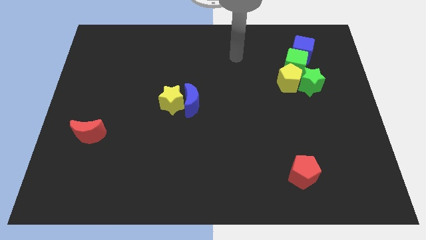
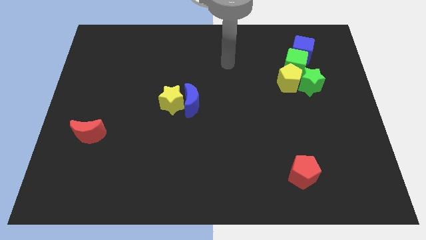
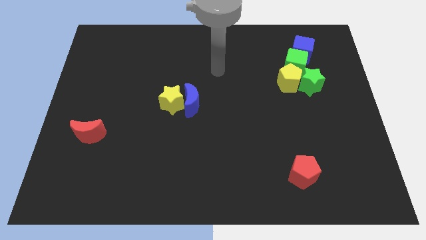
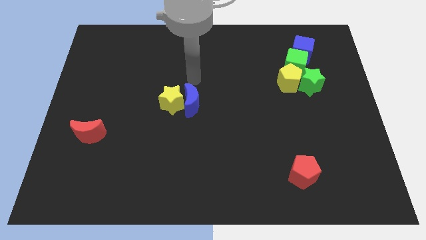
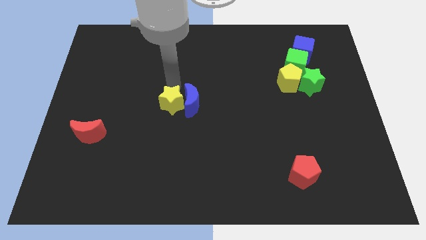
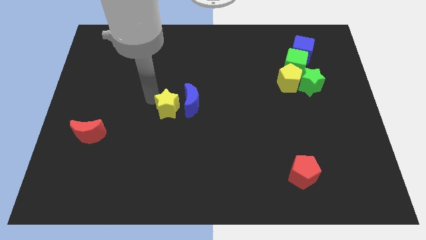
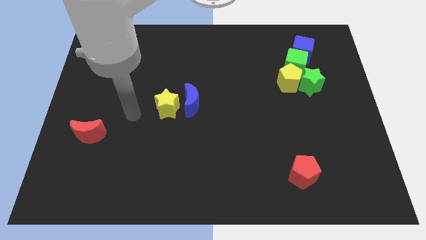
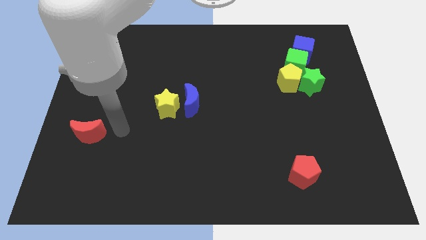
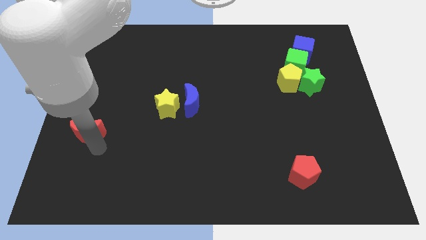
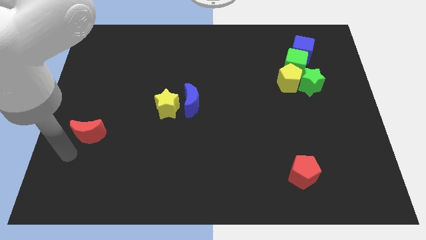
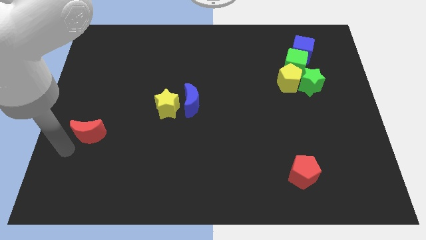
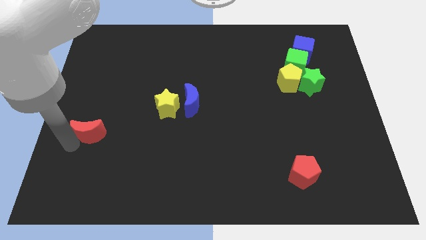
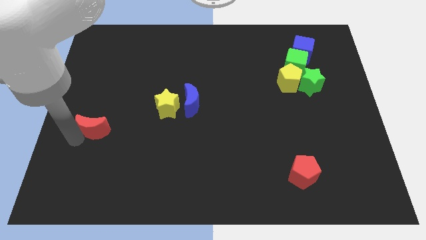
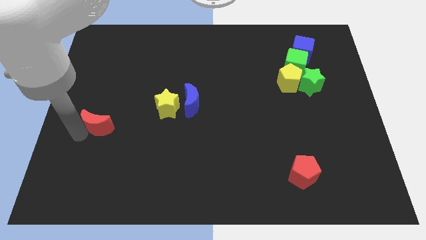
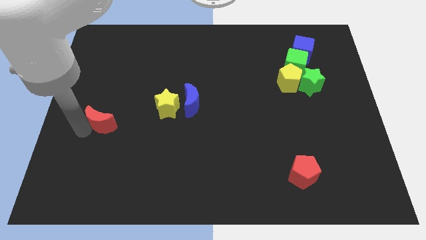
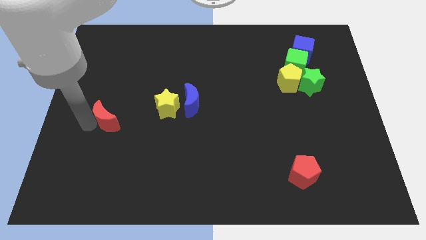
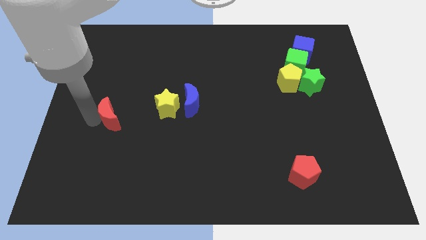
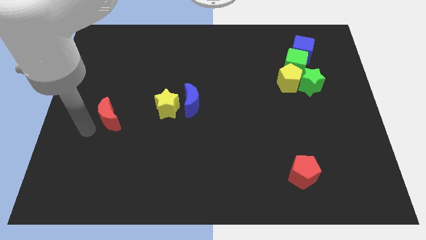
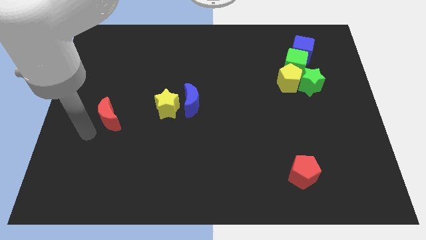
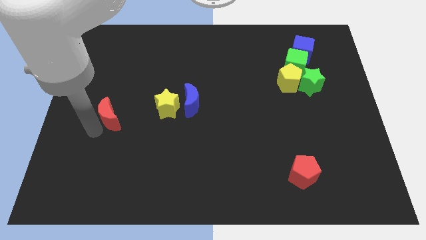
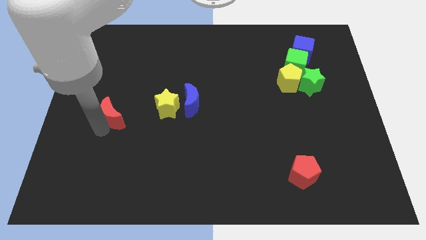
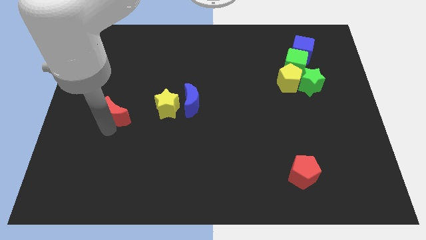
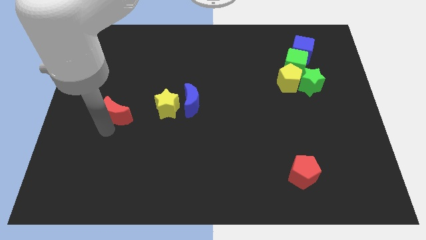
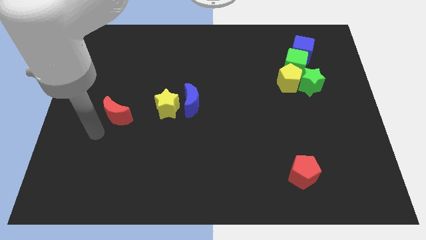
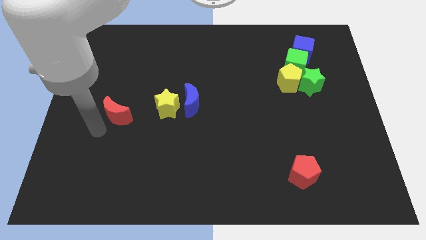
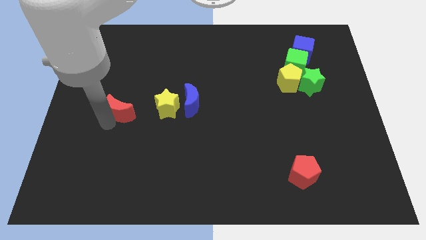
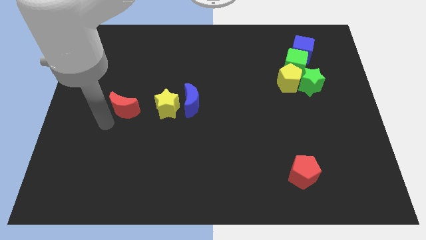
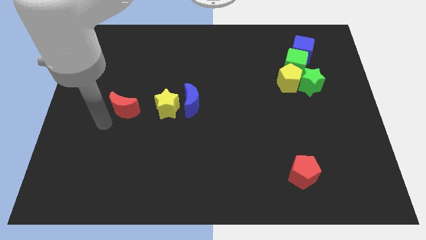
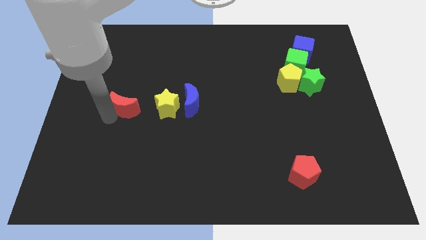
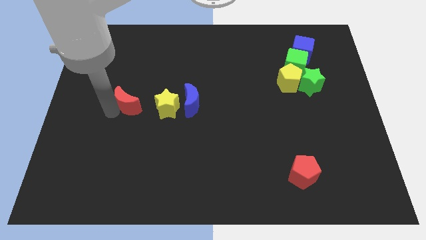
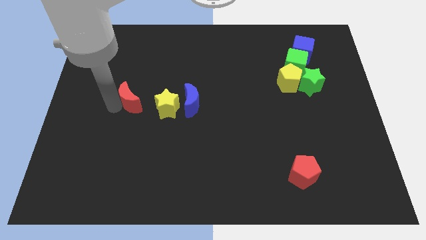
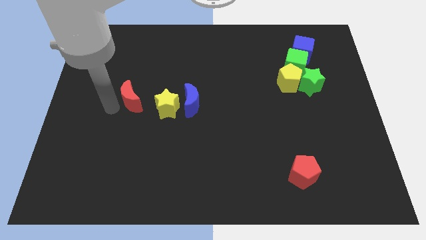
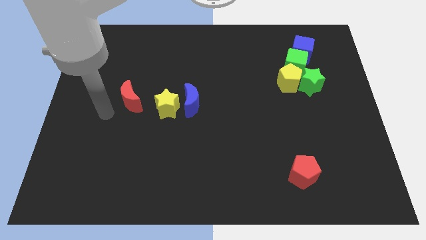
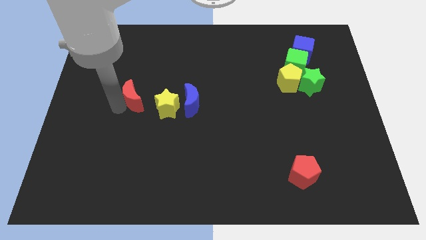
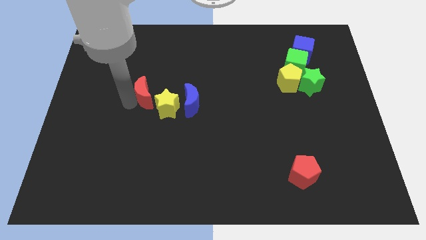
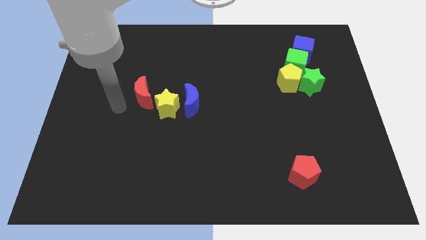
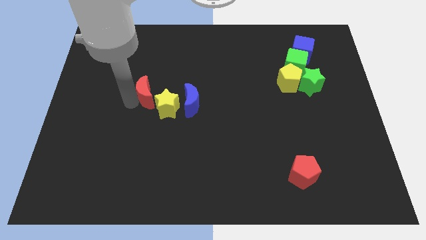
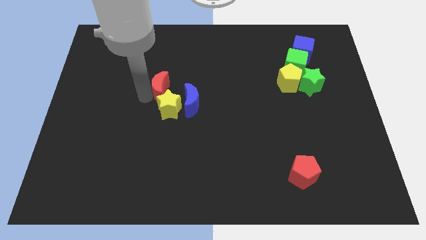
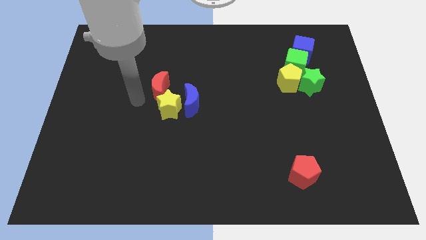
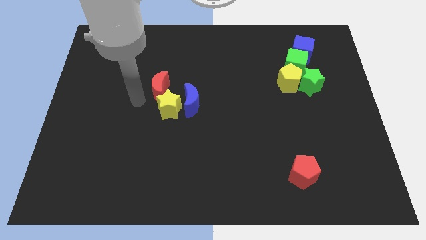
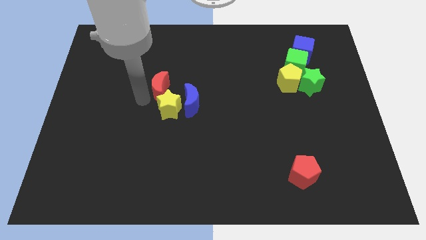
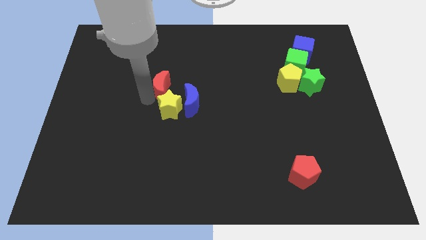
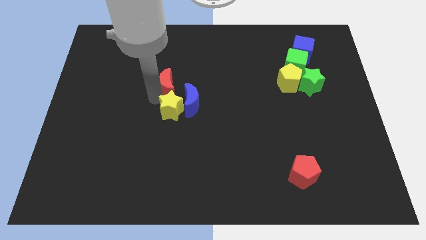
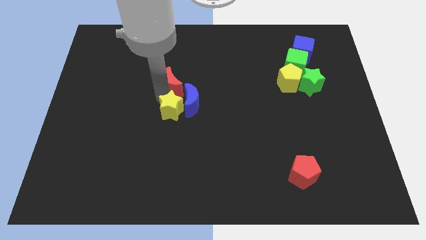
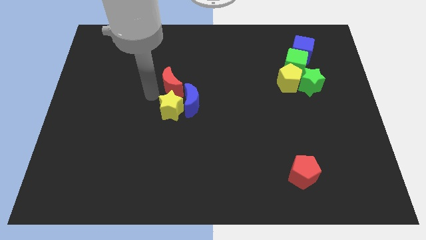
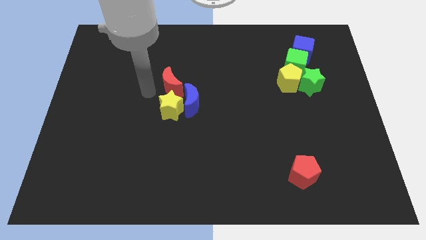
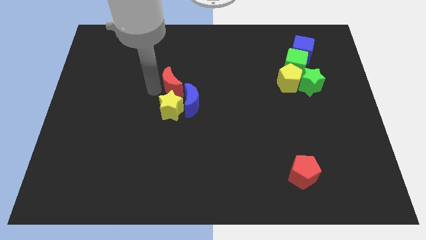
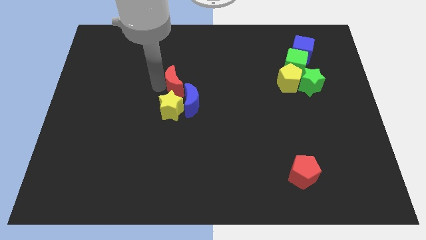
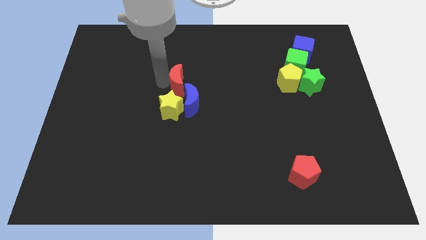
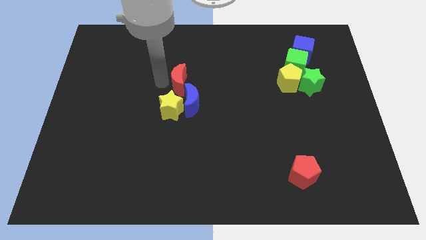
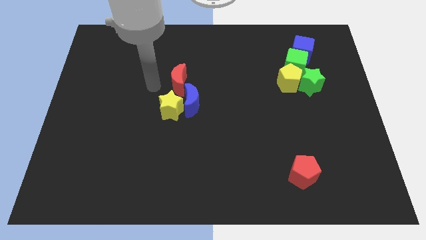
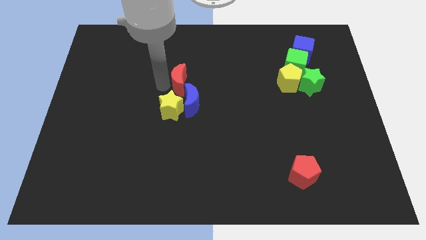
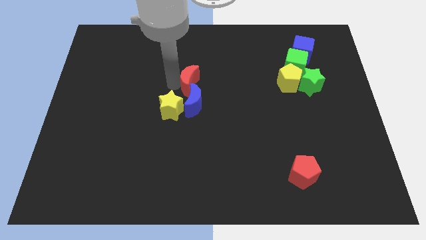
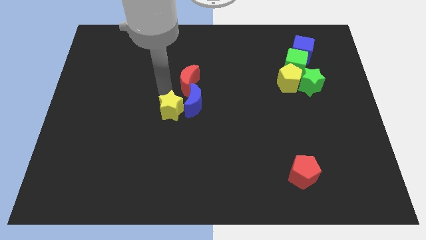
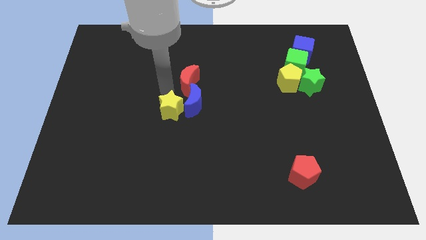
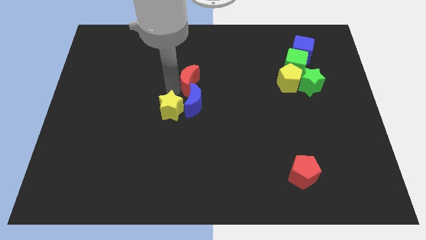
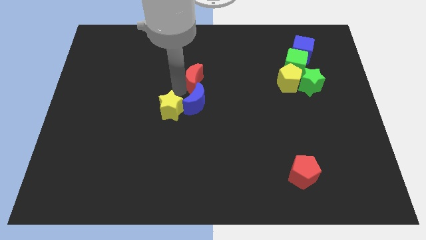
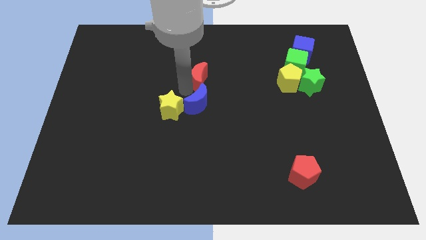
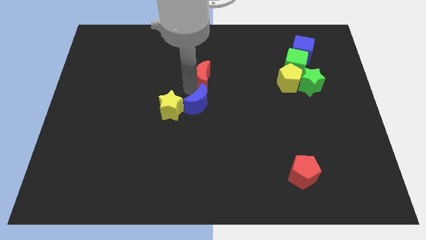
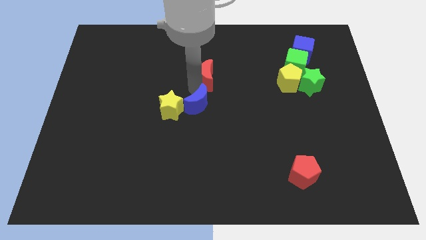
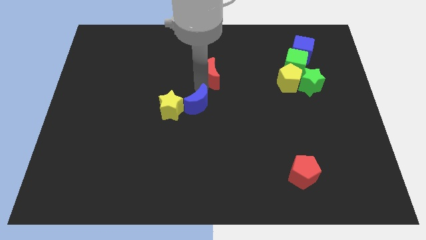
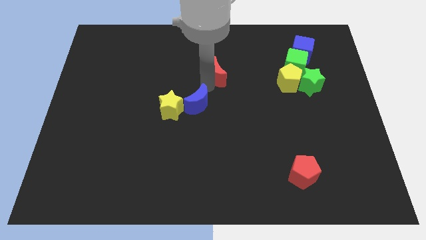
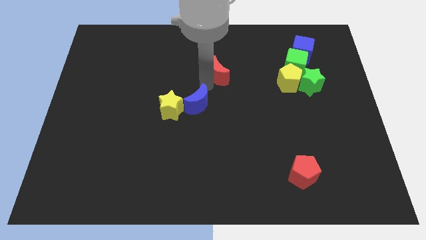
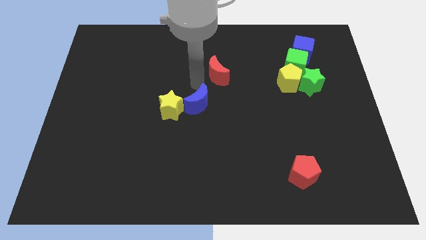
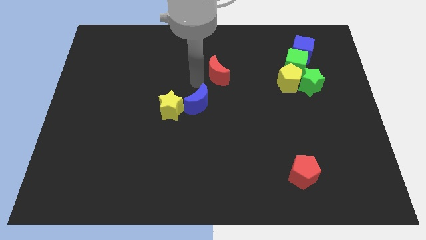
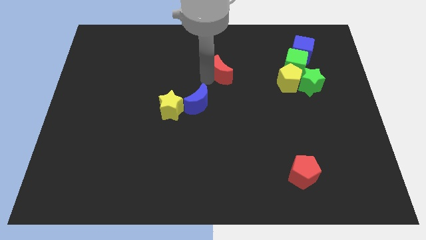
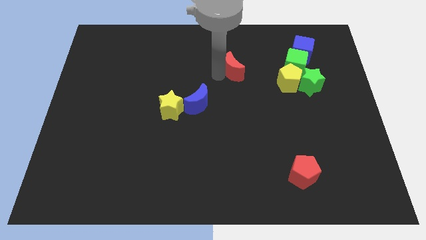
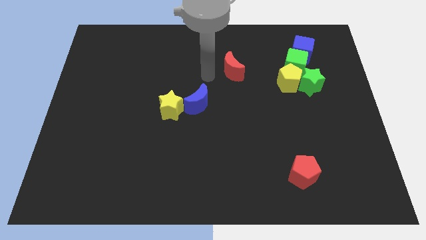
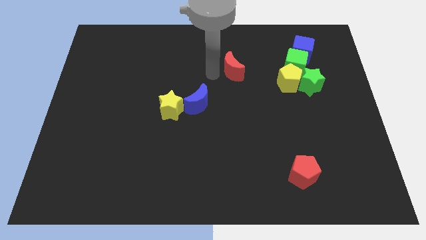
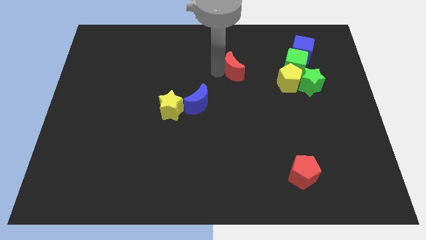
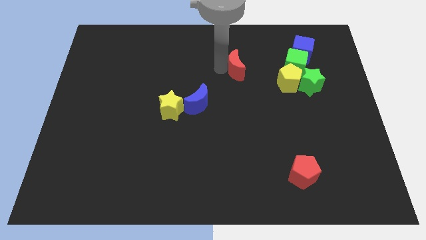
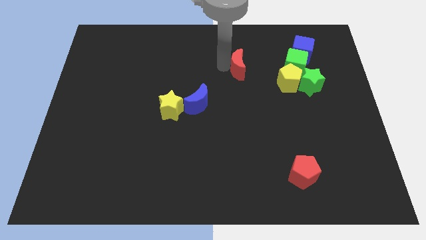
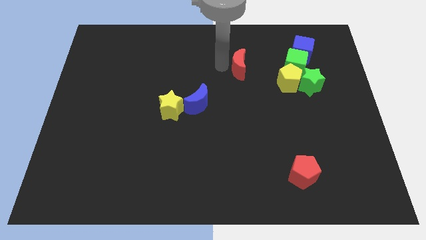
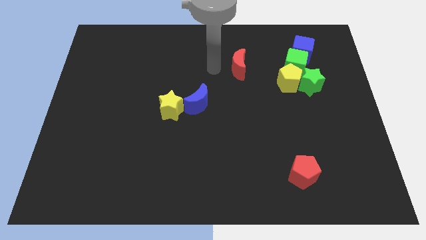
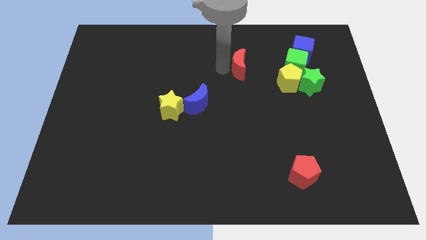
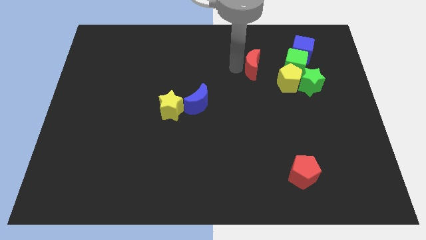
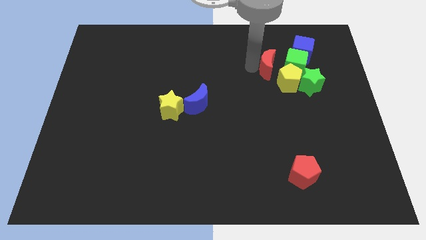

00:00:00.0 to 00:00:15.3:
put the red moon diagonally up and to the left of the green star
